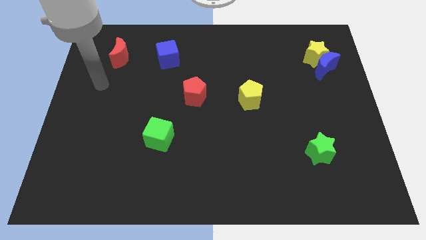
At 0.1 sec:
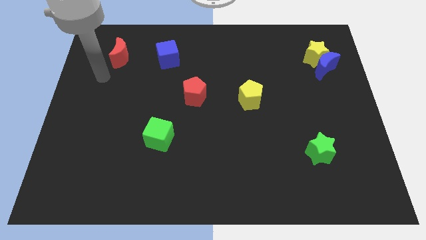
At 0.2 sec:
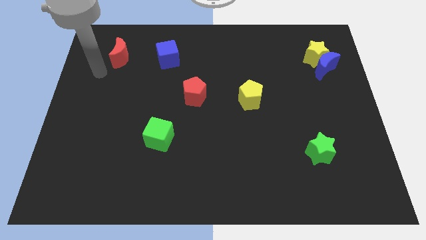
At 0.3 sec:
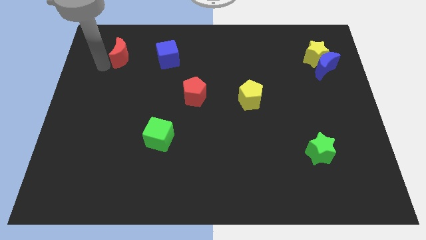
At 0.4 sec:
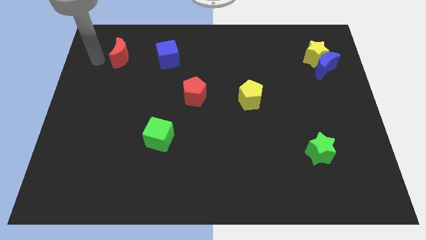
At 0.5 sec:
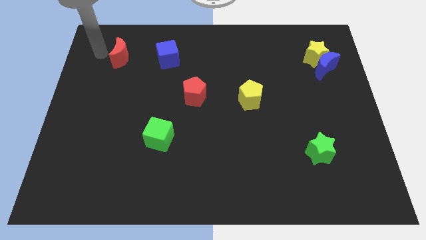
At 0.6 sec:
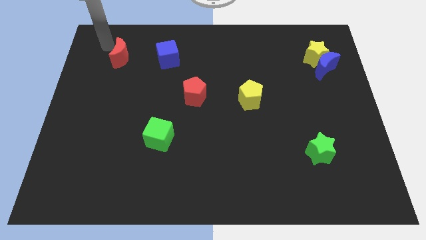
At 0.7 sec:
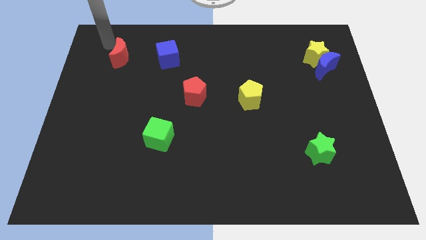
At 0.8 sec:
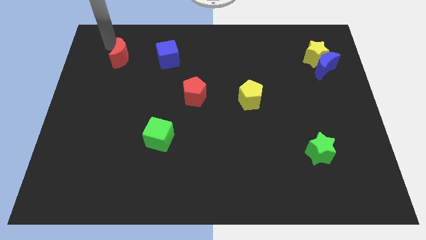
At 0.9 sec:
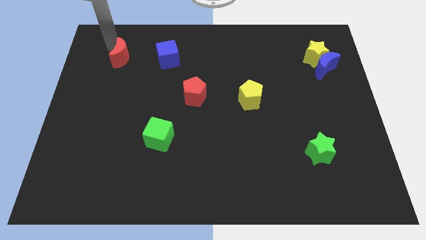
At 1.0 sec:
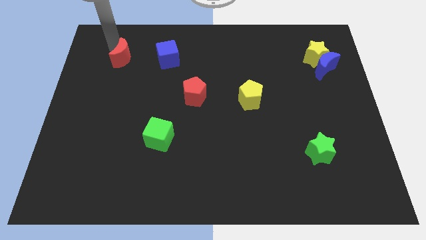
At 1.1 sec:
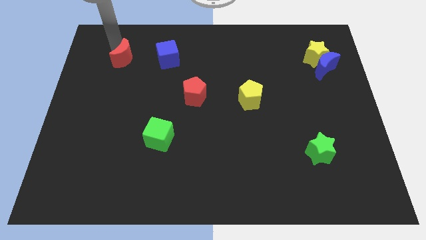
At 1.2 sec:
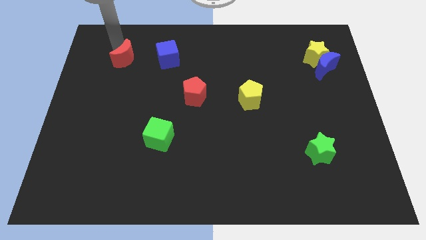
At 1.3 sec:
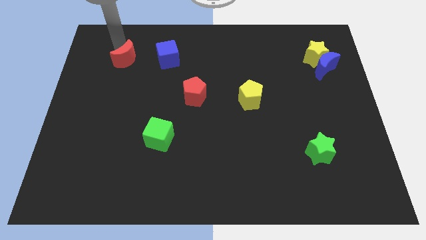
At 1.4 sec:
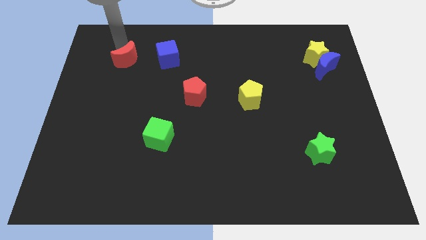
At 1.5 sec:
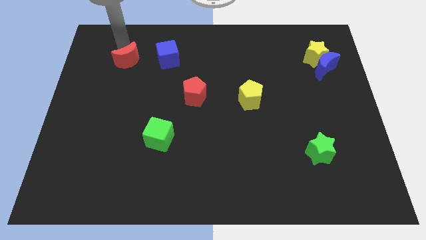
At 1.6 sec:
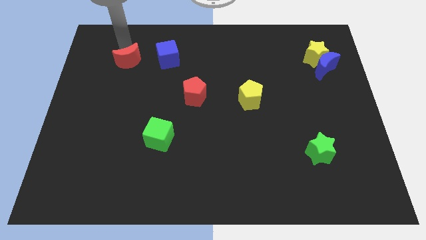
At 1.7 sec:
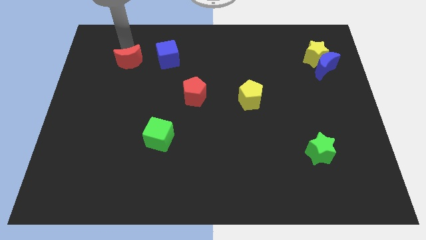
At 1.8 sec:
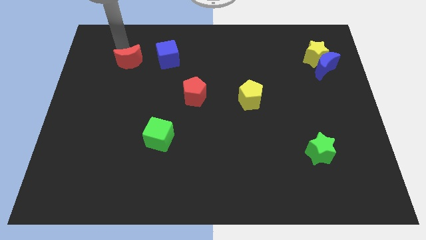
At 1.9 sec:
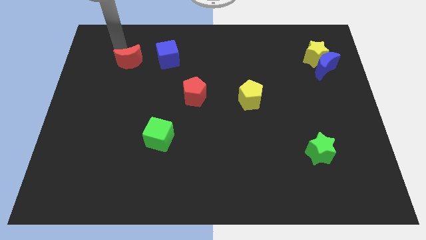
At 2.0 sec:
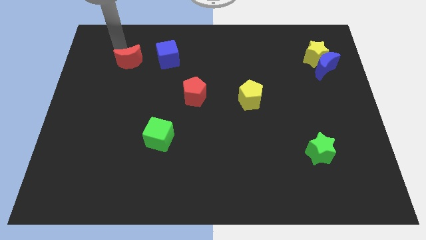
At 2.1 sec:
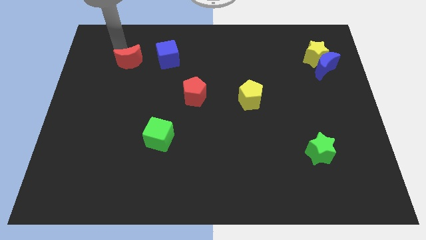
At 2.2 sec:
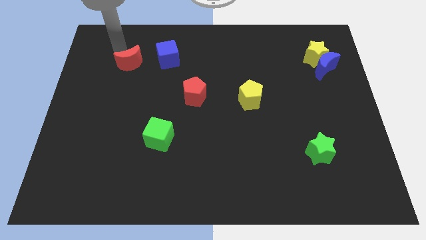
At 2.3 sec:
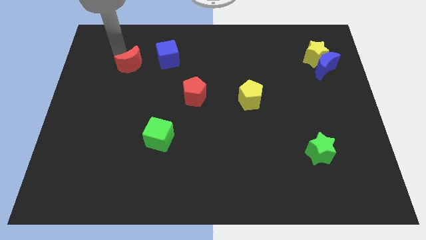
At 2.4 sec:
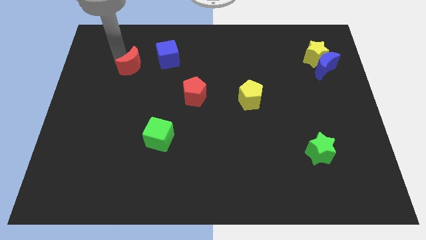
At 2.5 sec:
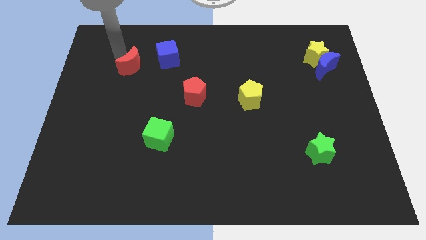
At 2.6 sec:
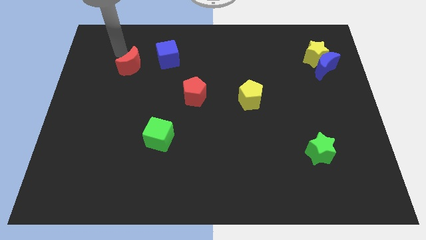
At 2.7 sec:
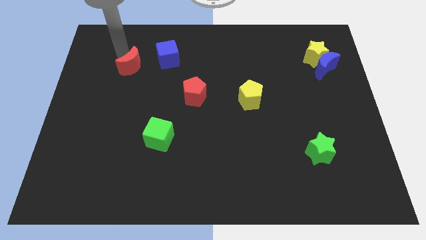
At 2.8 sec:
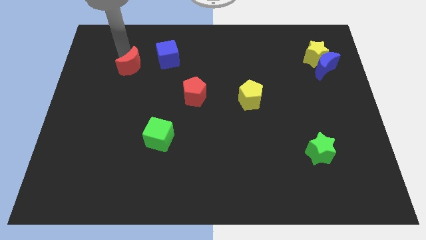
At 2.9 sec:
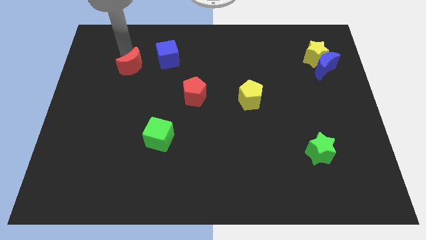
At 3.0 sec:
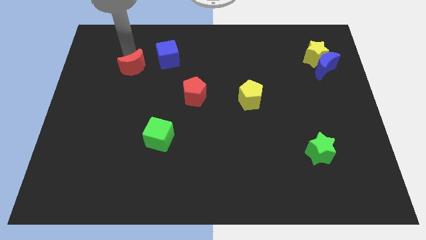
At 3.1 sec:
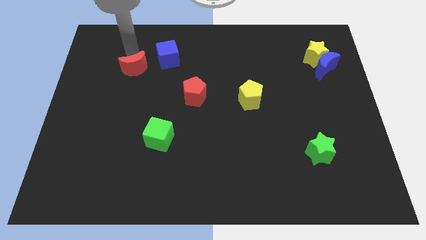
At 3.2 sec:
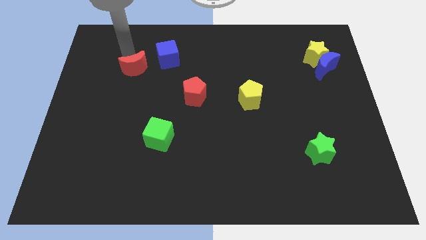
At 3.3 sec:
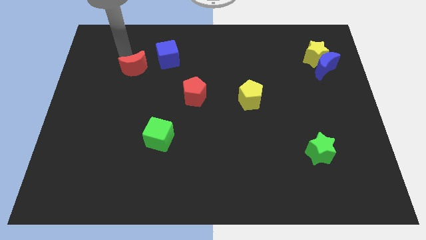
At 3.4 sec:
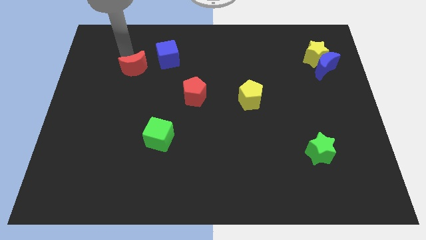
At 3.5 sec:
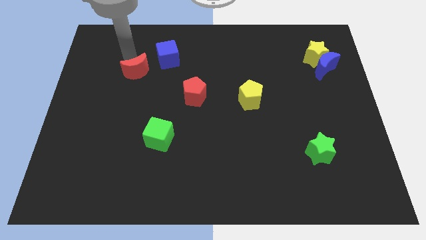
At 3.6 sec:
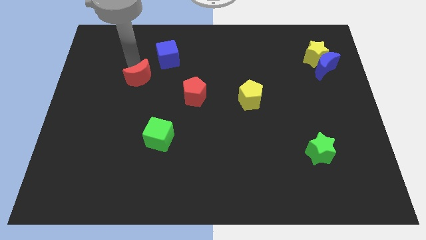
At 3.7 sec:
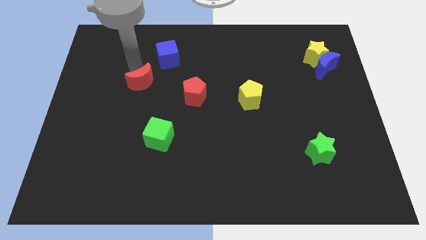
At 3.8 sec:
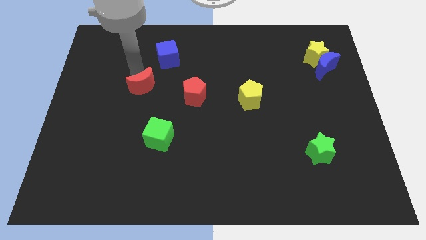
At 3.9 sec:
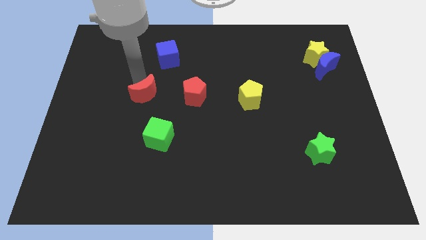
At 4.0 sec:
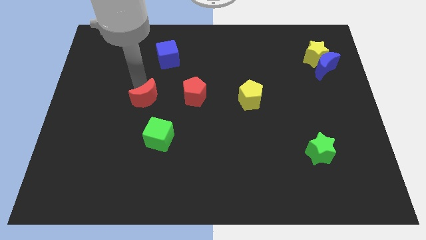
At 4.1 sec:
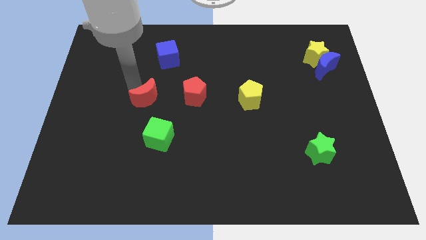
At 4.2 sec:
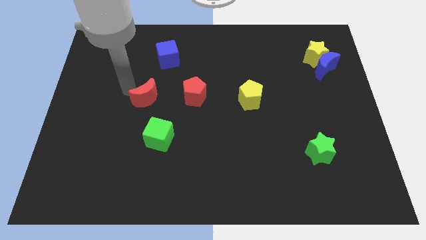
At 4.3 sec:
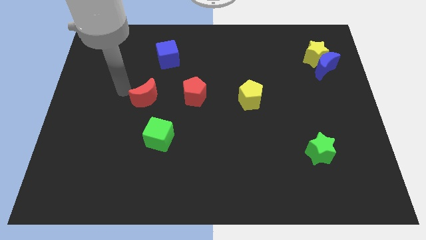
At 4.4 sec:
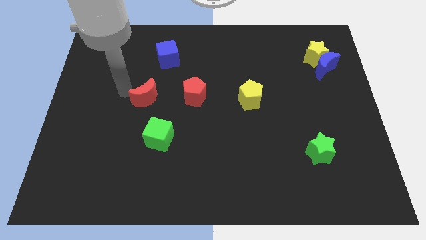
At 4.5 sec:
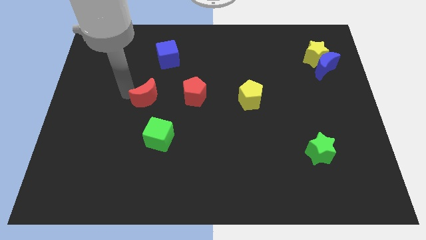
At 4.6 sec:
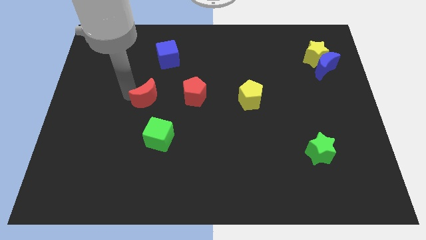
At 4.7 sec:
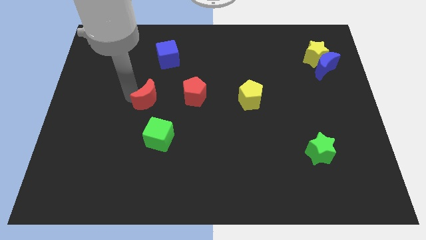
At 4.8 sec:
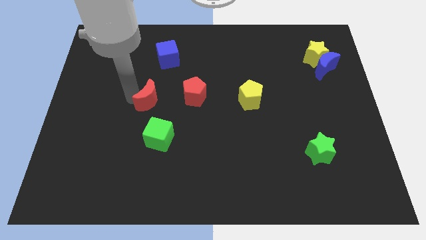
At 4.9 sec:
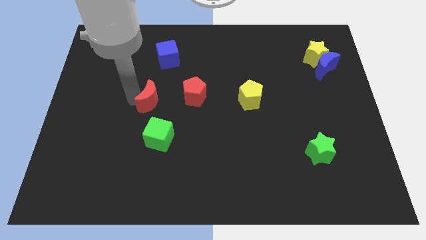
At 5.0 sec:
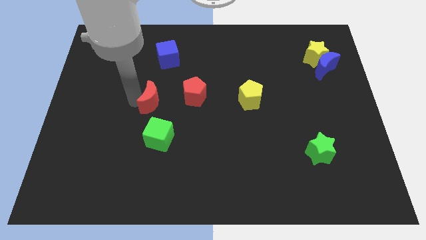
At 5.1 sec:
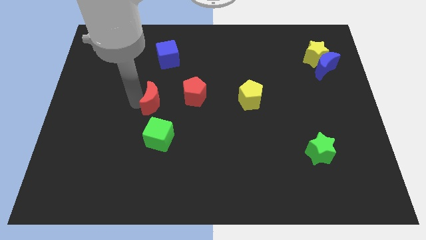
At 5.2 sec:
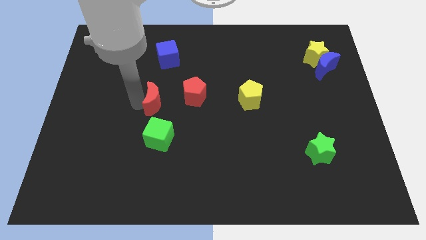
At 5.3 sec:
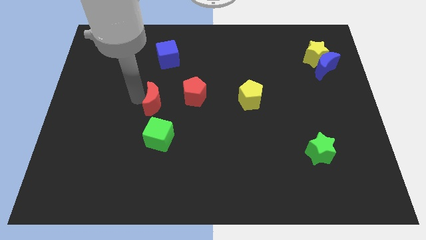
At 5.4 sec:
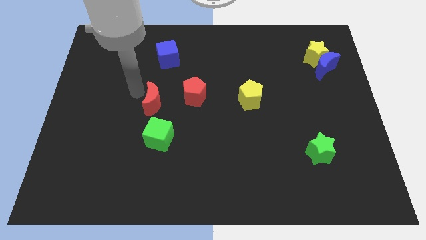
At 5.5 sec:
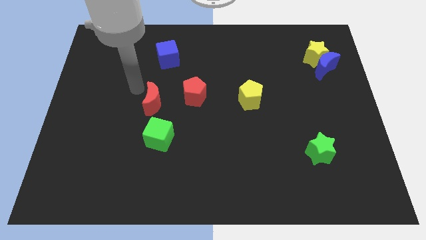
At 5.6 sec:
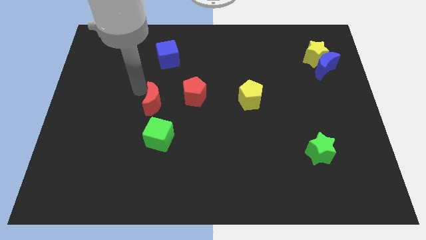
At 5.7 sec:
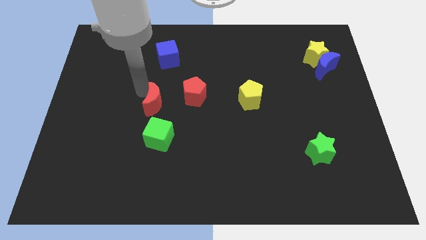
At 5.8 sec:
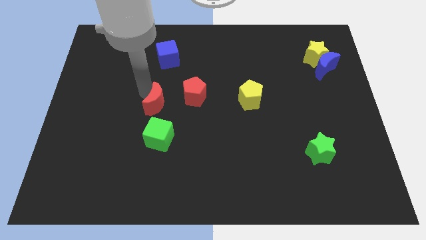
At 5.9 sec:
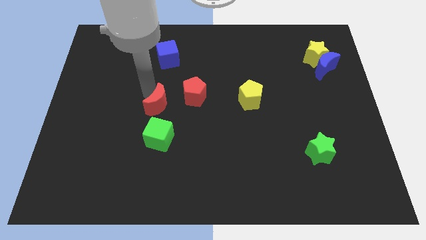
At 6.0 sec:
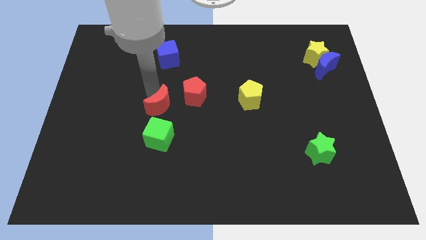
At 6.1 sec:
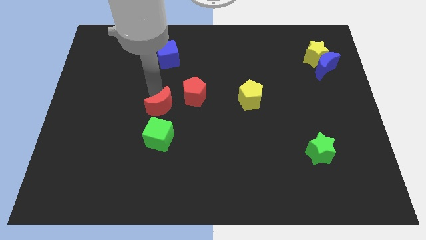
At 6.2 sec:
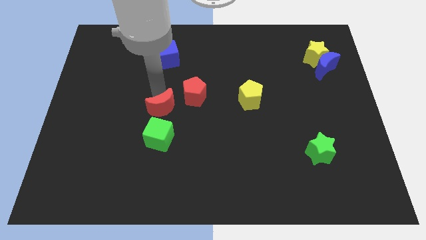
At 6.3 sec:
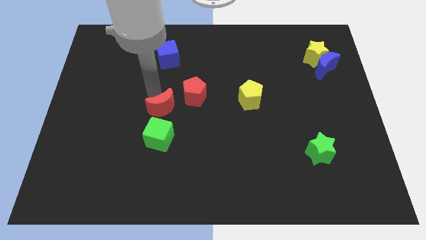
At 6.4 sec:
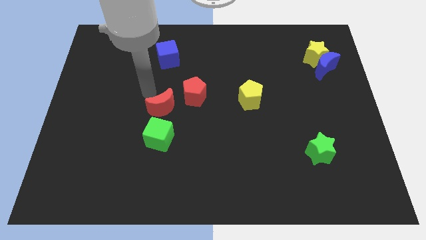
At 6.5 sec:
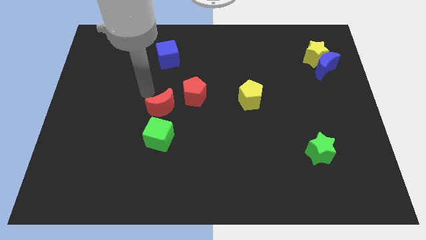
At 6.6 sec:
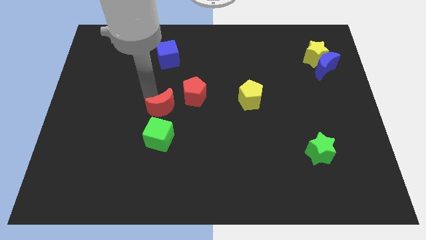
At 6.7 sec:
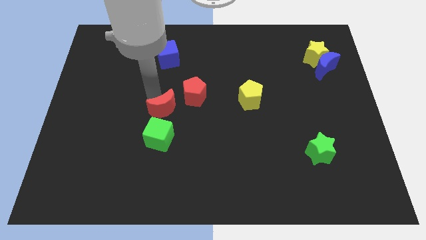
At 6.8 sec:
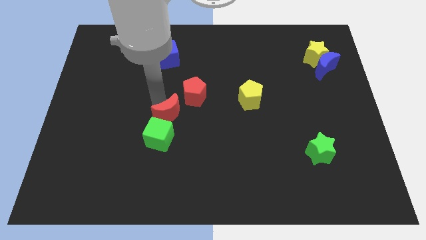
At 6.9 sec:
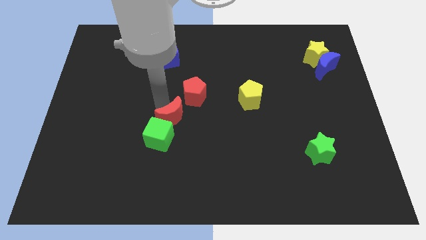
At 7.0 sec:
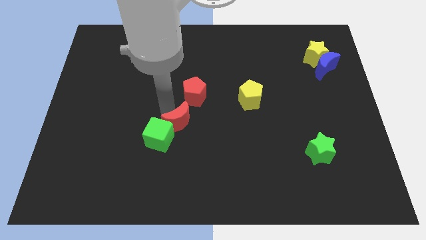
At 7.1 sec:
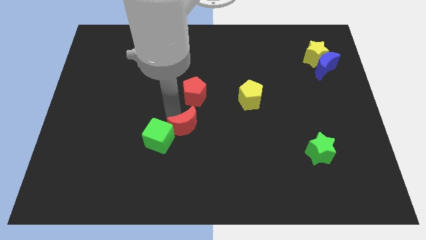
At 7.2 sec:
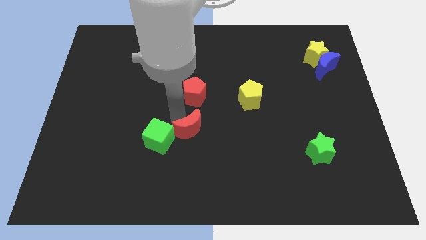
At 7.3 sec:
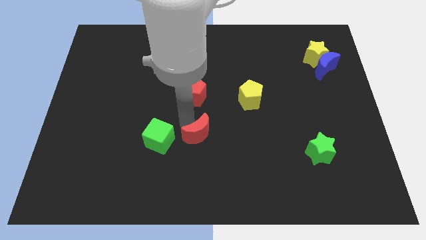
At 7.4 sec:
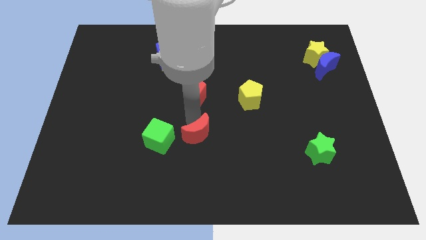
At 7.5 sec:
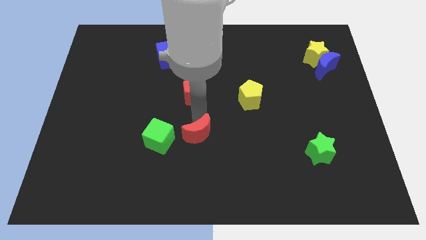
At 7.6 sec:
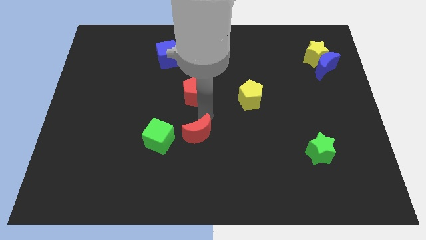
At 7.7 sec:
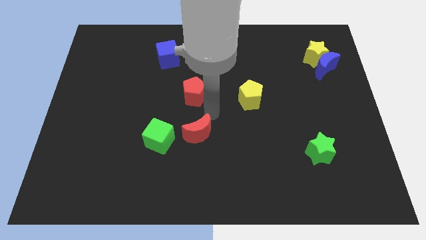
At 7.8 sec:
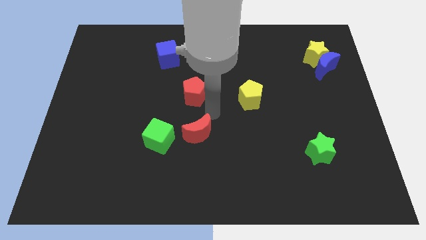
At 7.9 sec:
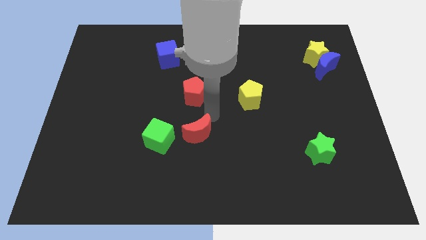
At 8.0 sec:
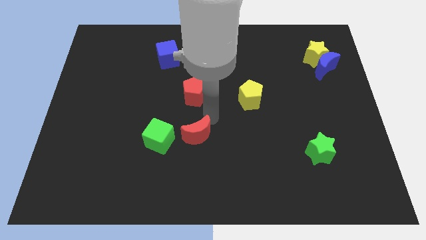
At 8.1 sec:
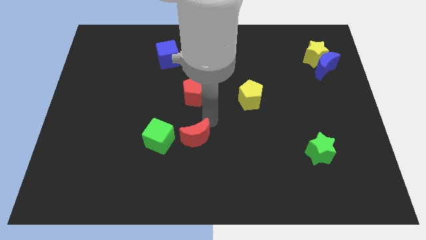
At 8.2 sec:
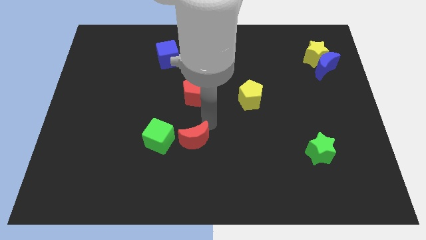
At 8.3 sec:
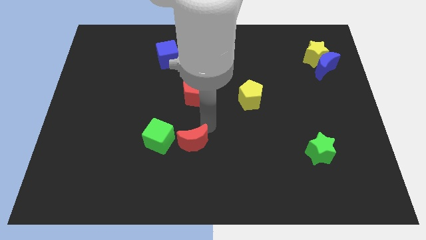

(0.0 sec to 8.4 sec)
move the red moon to the bottom right side of the green cube
